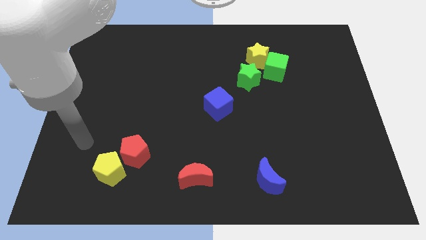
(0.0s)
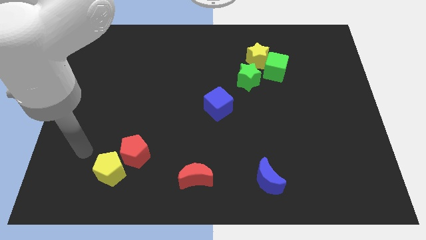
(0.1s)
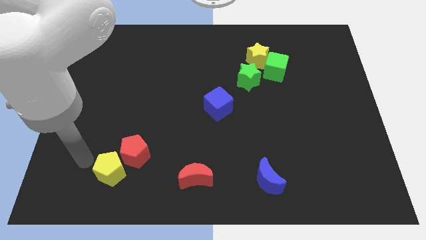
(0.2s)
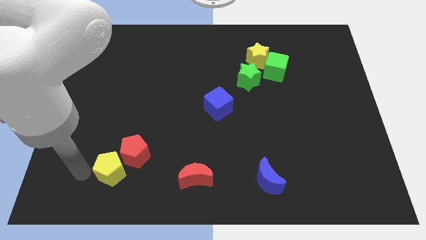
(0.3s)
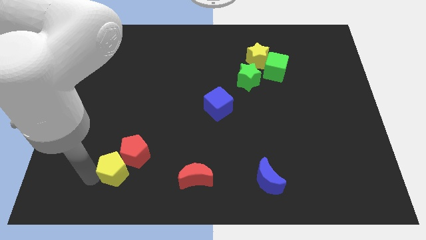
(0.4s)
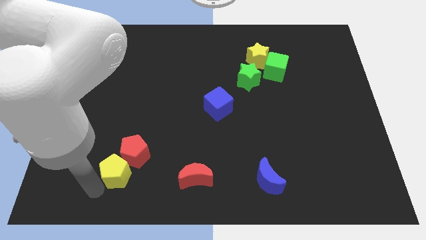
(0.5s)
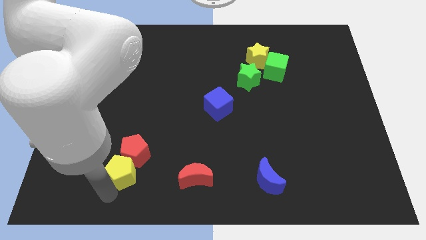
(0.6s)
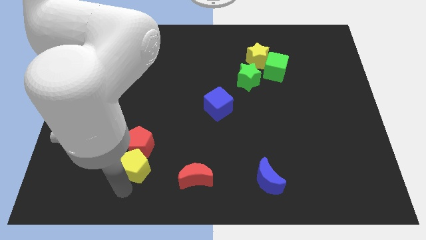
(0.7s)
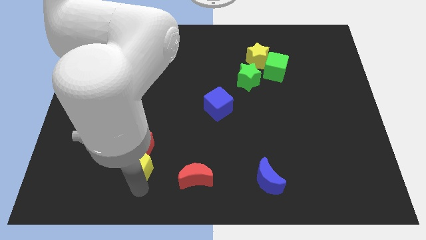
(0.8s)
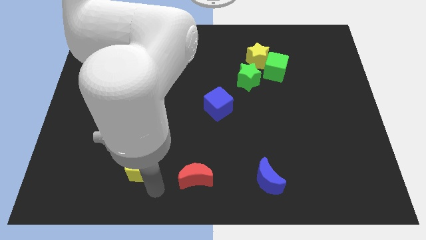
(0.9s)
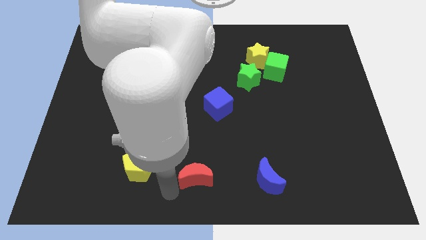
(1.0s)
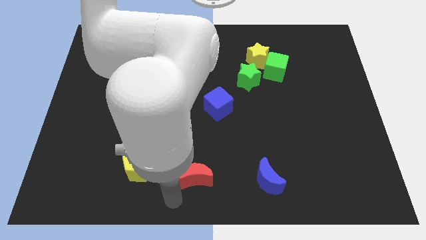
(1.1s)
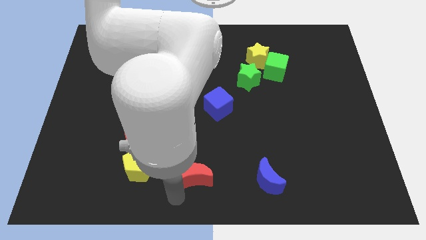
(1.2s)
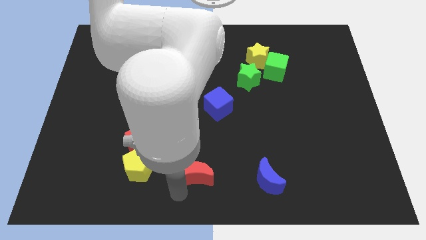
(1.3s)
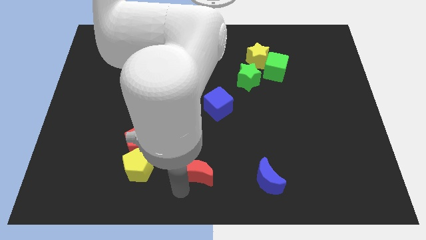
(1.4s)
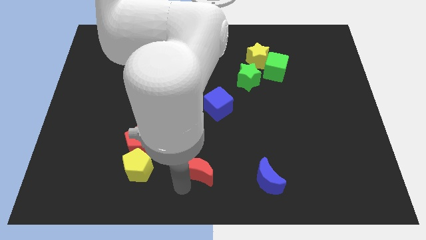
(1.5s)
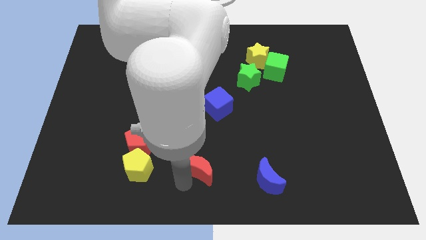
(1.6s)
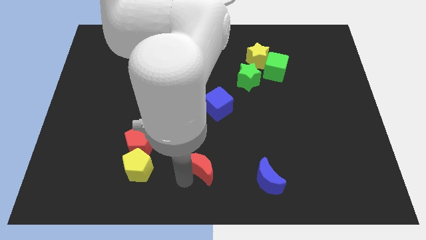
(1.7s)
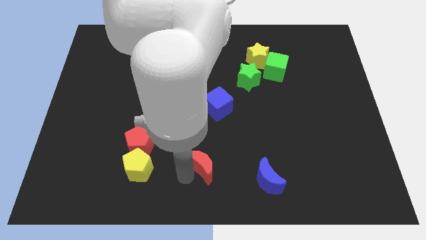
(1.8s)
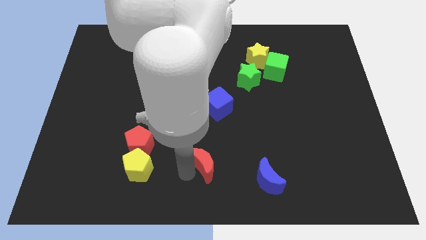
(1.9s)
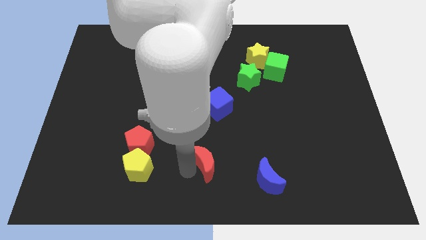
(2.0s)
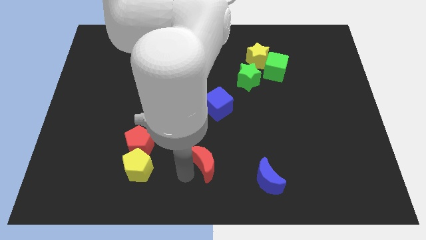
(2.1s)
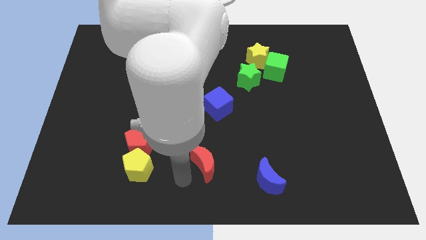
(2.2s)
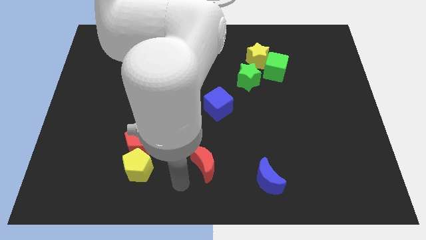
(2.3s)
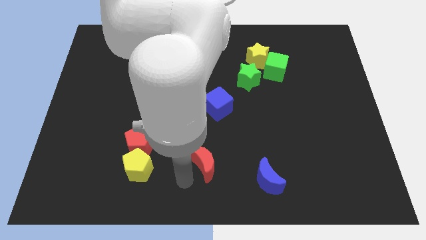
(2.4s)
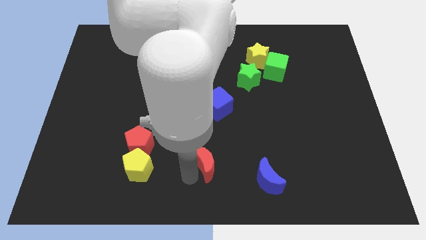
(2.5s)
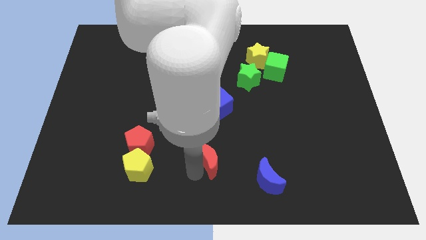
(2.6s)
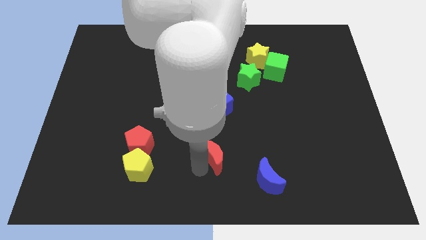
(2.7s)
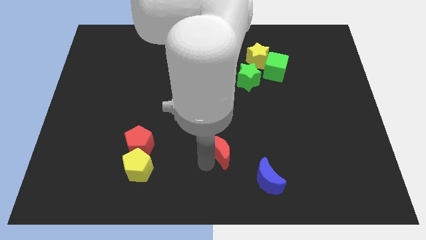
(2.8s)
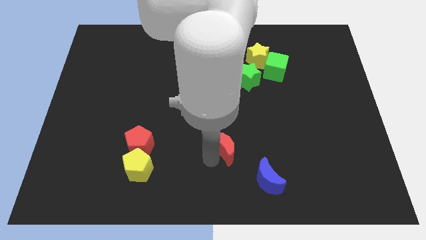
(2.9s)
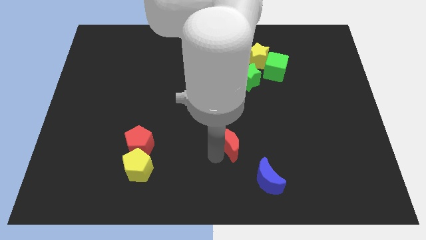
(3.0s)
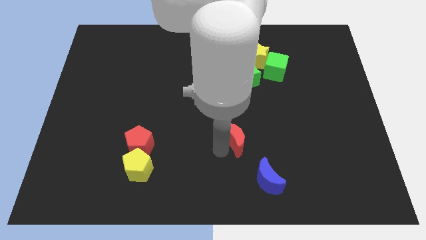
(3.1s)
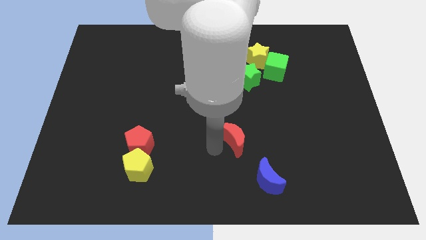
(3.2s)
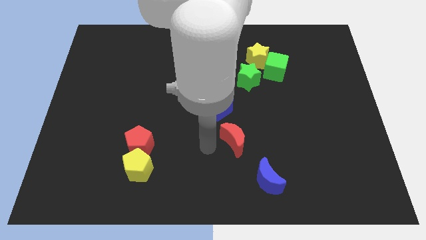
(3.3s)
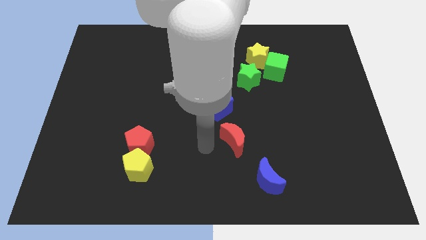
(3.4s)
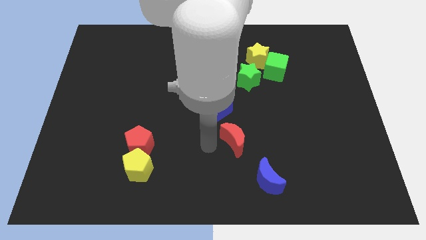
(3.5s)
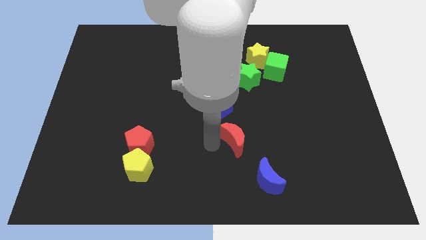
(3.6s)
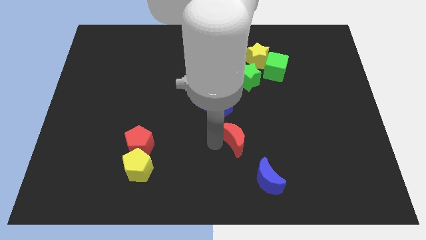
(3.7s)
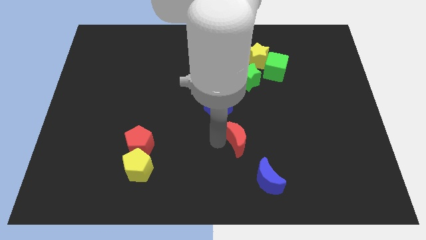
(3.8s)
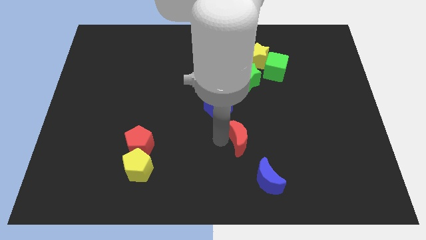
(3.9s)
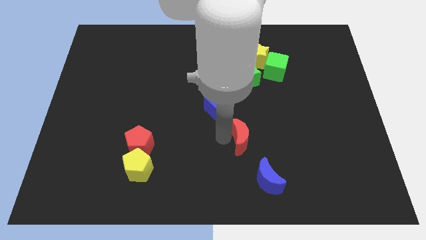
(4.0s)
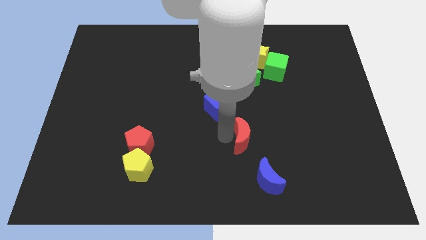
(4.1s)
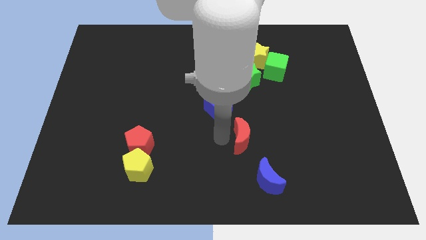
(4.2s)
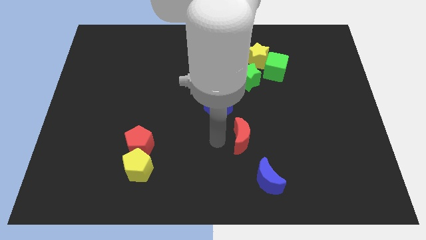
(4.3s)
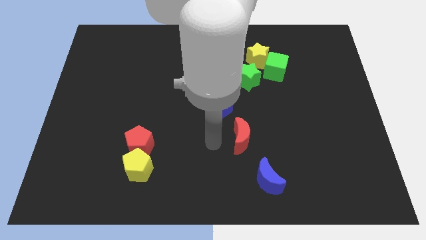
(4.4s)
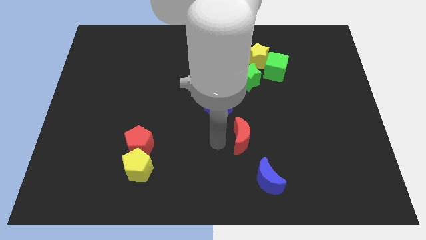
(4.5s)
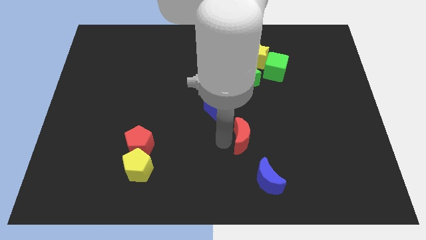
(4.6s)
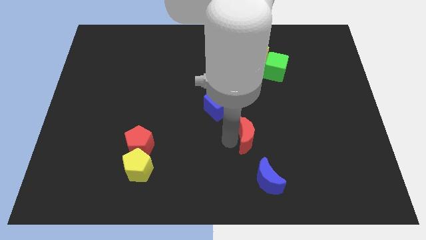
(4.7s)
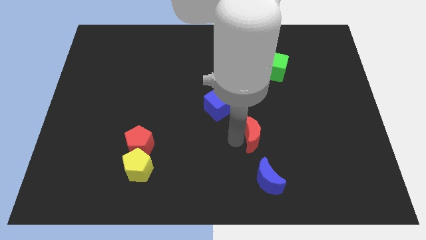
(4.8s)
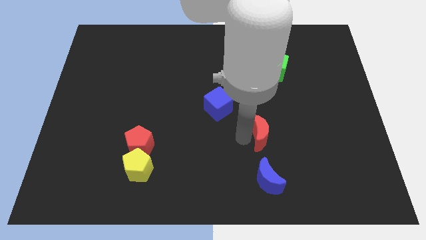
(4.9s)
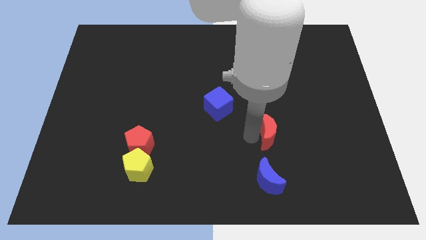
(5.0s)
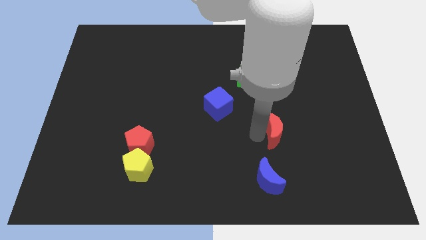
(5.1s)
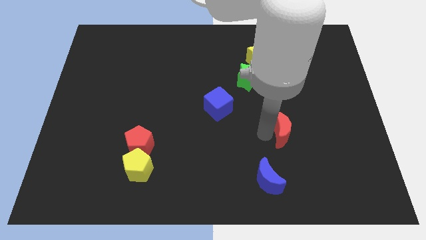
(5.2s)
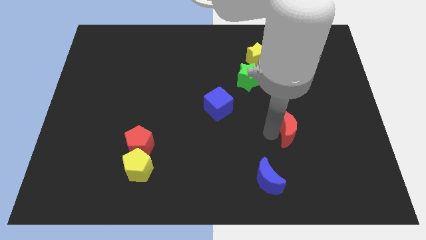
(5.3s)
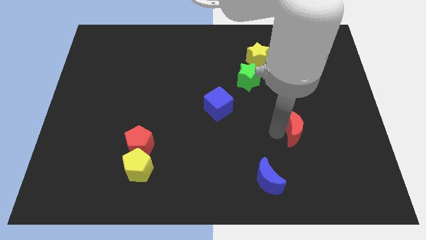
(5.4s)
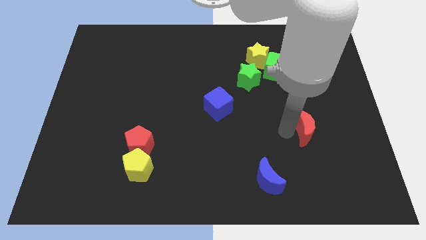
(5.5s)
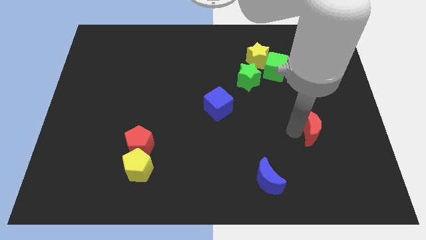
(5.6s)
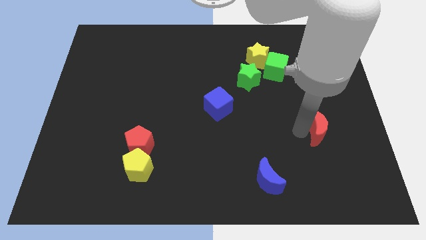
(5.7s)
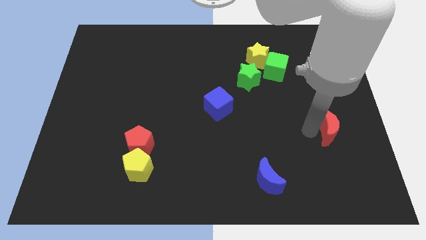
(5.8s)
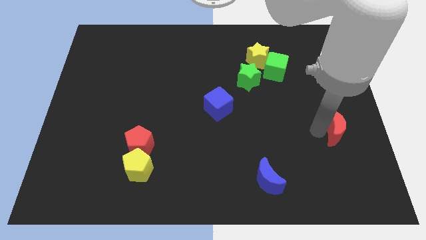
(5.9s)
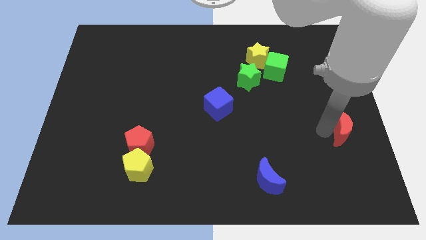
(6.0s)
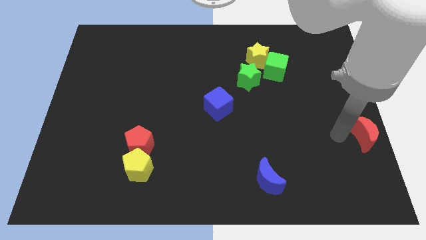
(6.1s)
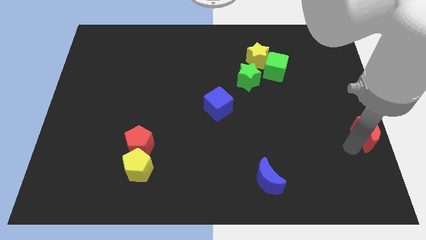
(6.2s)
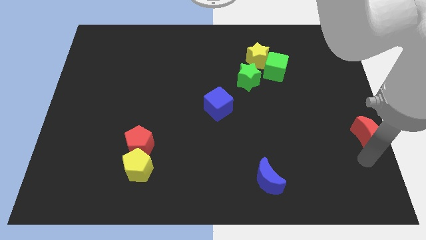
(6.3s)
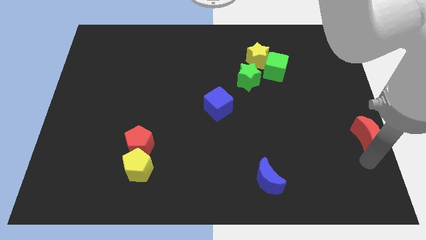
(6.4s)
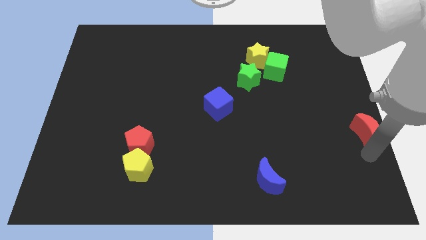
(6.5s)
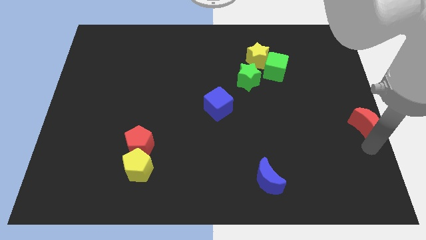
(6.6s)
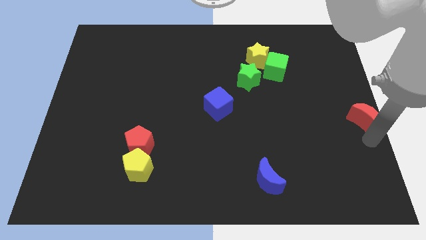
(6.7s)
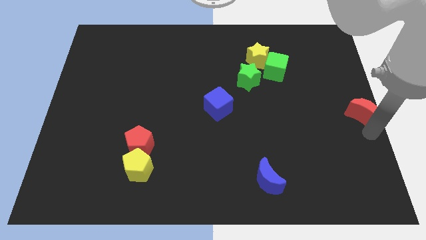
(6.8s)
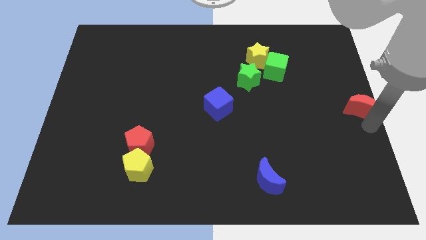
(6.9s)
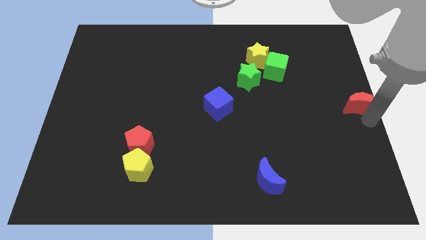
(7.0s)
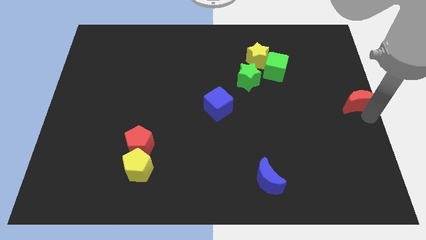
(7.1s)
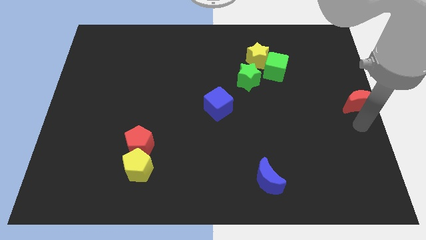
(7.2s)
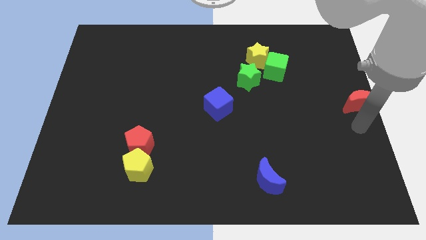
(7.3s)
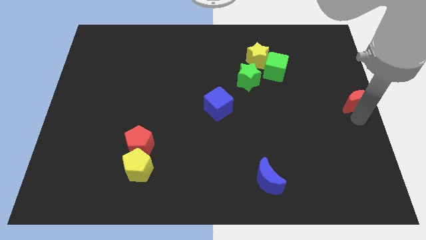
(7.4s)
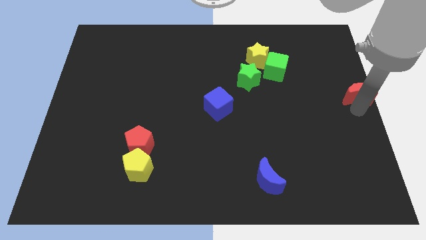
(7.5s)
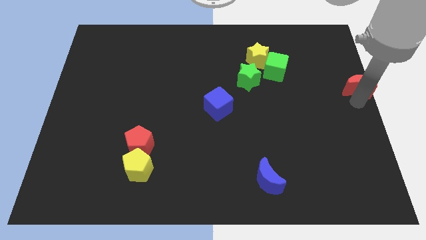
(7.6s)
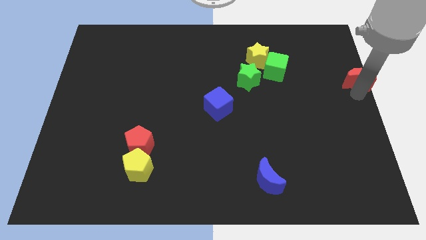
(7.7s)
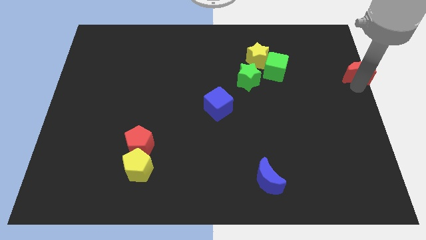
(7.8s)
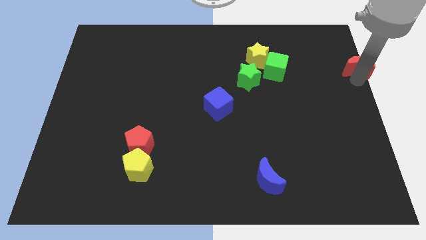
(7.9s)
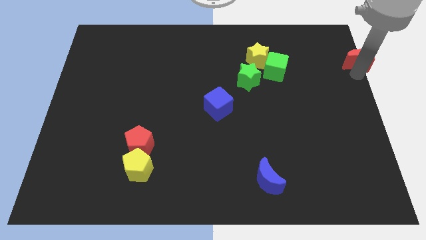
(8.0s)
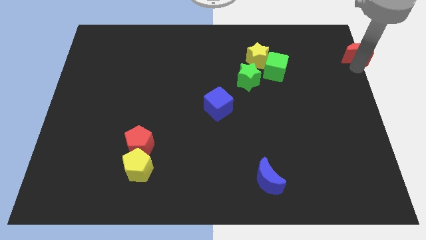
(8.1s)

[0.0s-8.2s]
slide the red moon to the upper right corner
